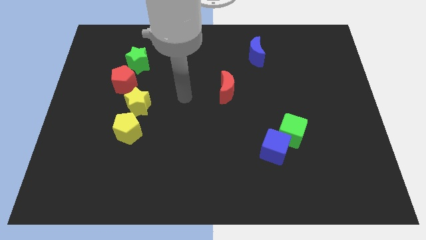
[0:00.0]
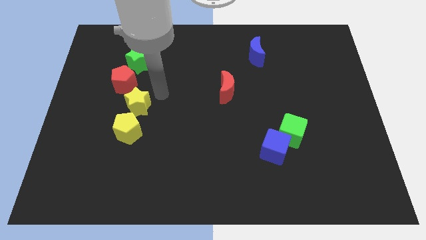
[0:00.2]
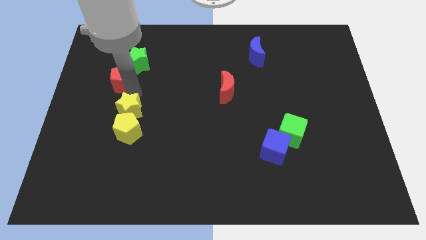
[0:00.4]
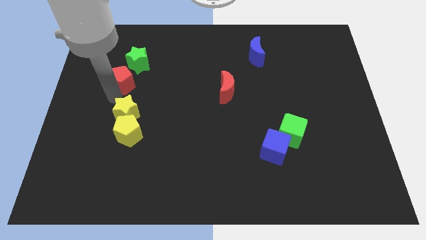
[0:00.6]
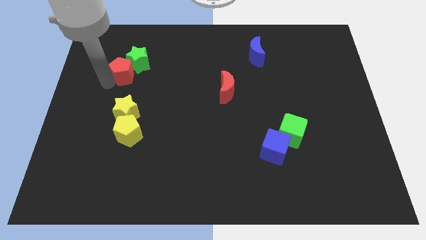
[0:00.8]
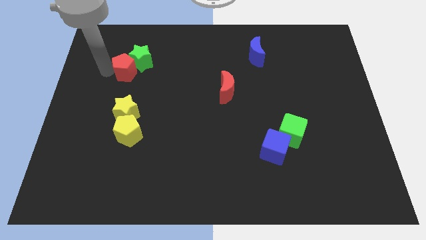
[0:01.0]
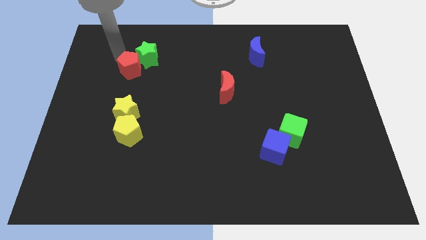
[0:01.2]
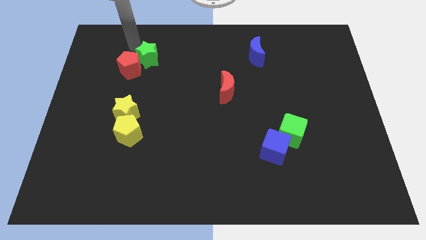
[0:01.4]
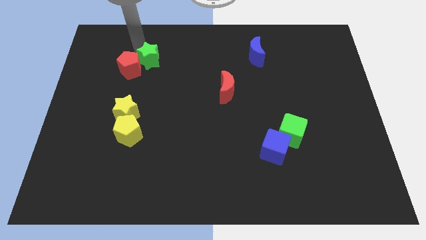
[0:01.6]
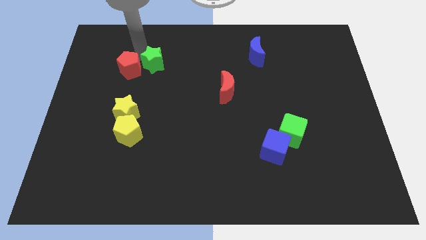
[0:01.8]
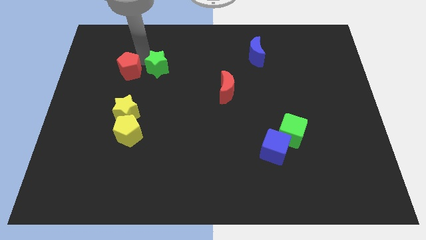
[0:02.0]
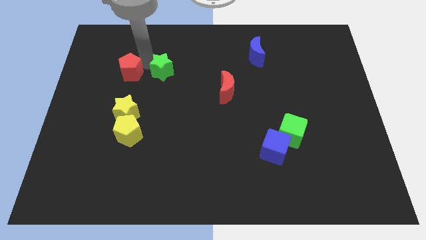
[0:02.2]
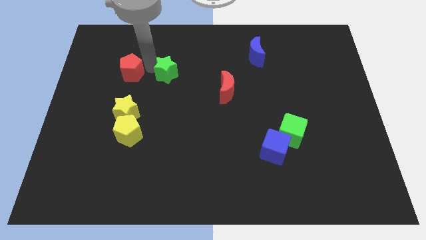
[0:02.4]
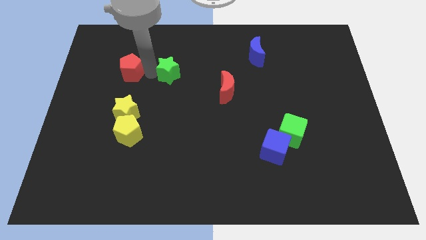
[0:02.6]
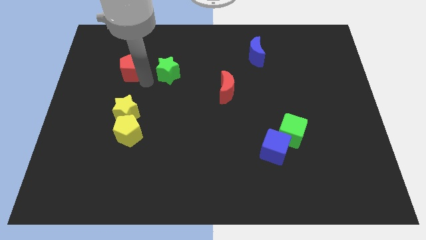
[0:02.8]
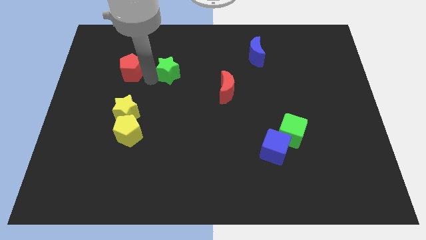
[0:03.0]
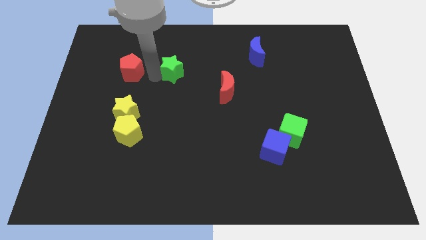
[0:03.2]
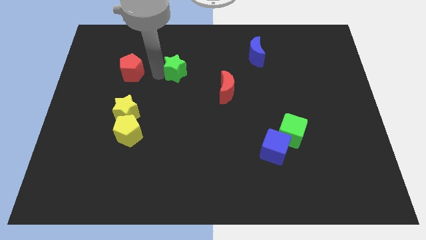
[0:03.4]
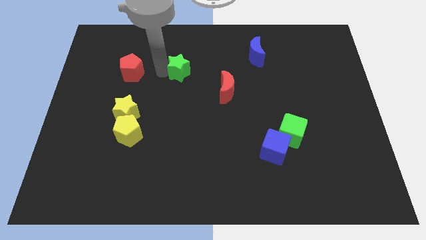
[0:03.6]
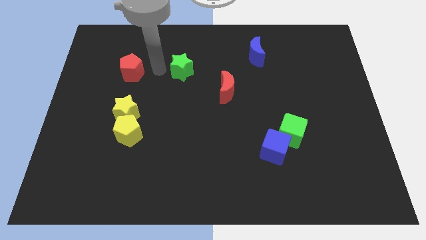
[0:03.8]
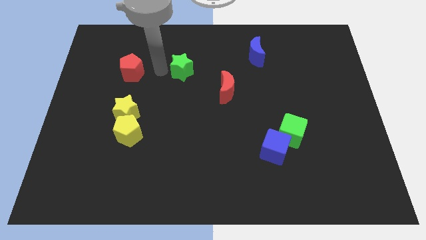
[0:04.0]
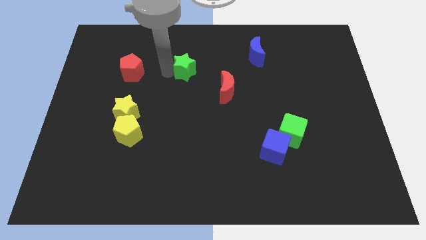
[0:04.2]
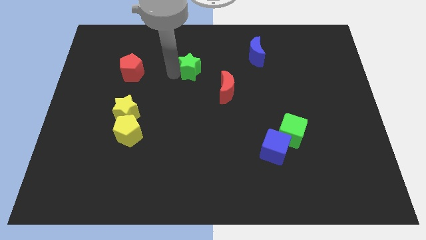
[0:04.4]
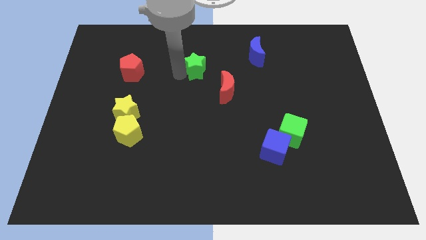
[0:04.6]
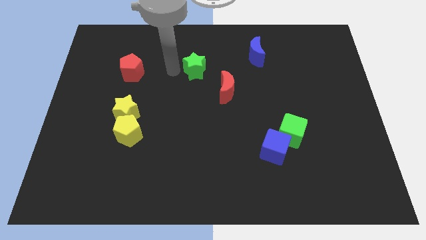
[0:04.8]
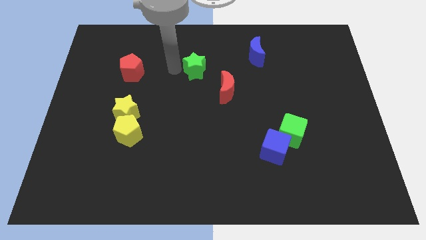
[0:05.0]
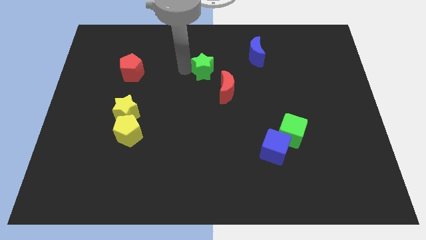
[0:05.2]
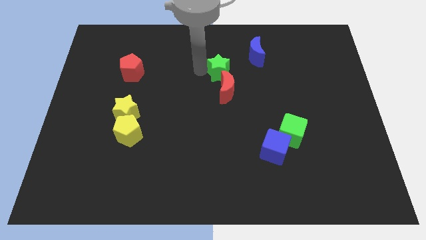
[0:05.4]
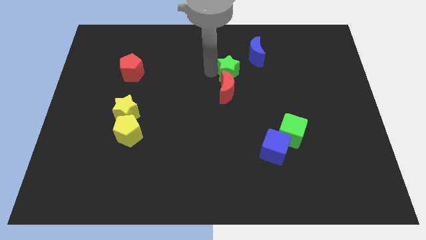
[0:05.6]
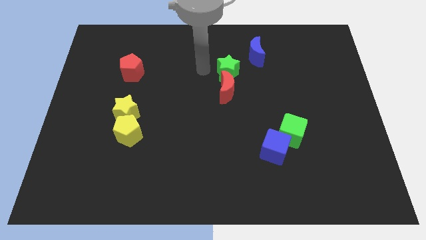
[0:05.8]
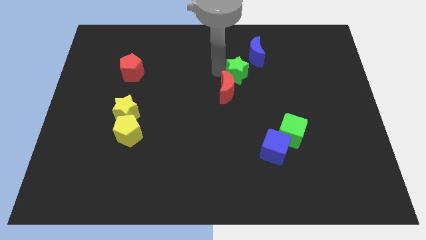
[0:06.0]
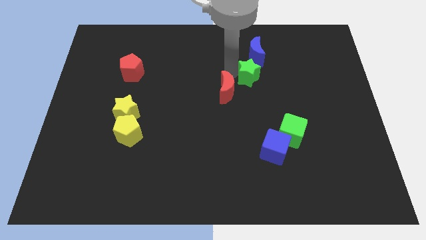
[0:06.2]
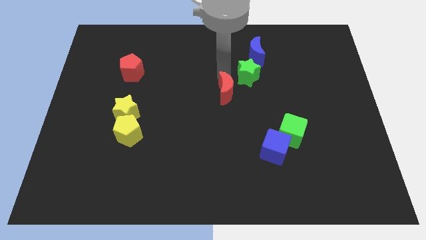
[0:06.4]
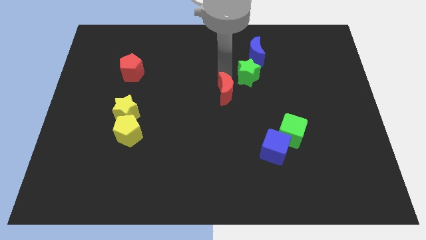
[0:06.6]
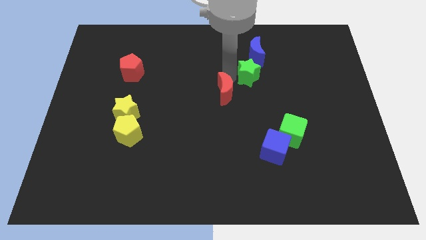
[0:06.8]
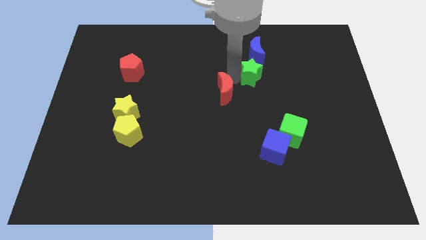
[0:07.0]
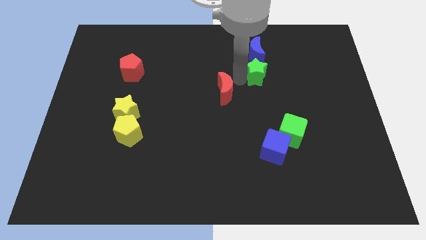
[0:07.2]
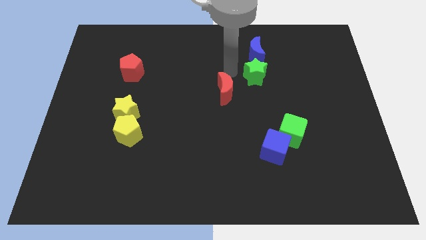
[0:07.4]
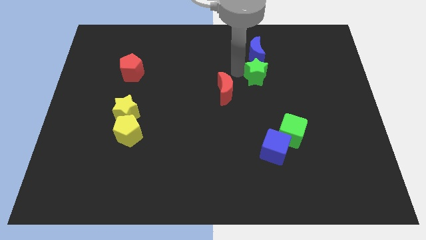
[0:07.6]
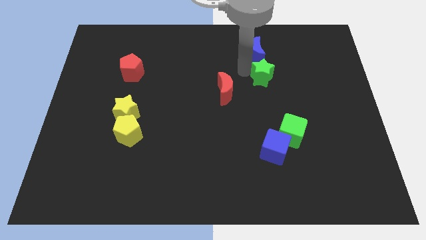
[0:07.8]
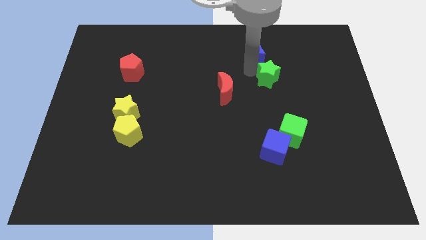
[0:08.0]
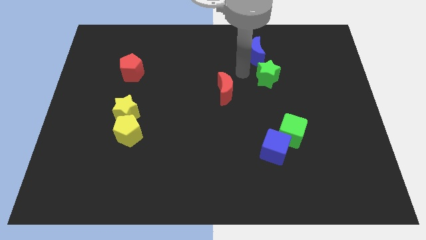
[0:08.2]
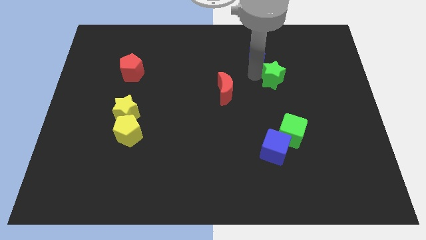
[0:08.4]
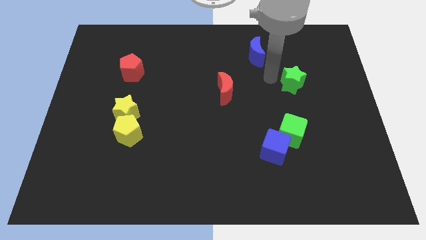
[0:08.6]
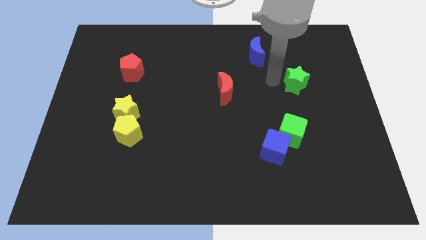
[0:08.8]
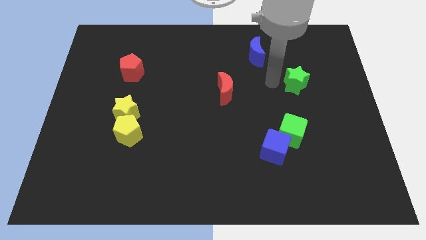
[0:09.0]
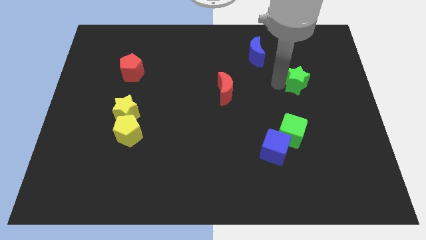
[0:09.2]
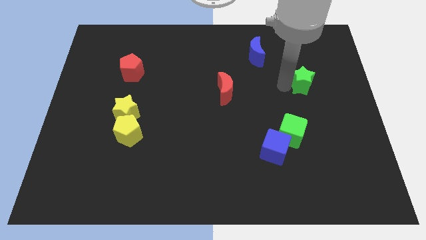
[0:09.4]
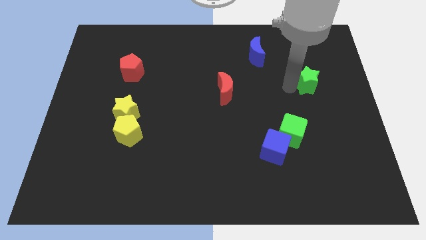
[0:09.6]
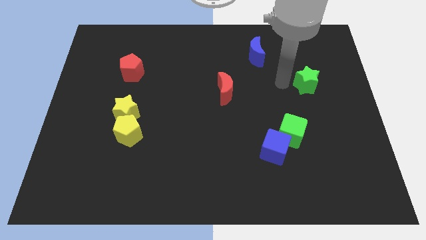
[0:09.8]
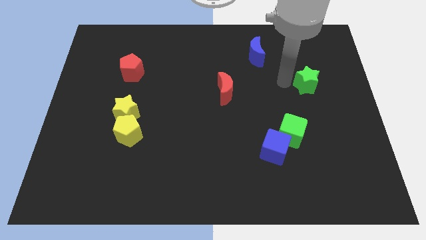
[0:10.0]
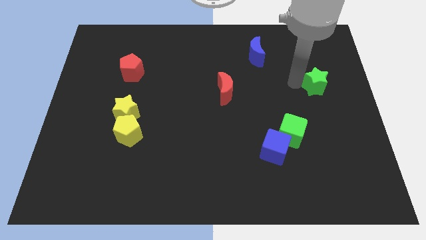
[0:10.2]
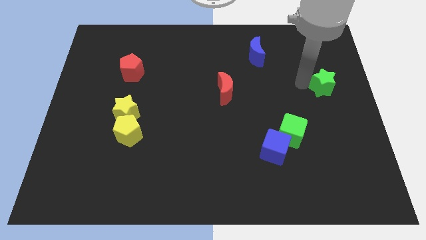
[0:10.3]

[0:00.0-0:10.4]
slide the green star to the right side of the board

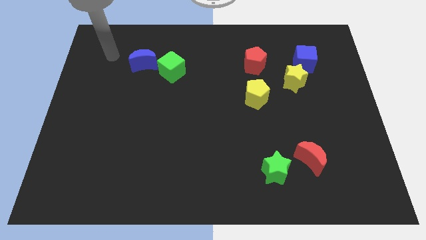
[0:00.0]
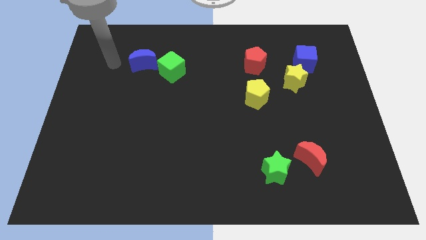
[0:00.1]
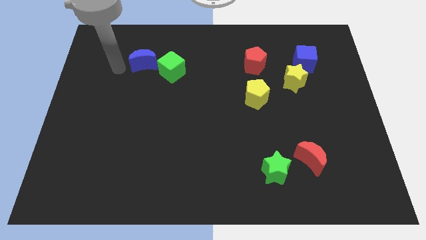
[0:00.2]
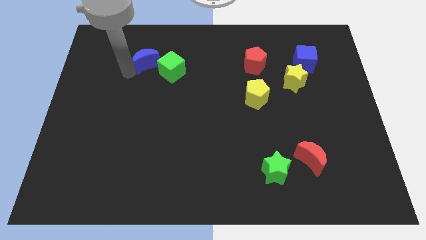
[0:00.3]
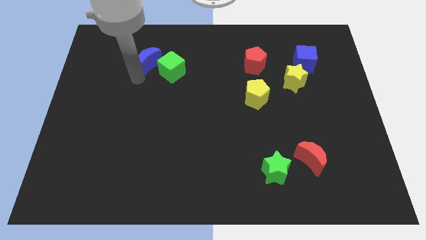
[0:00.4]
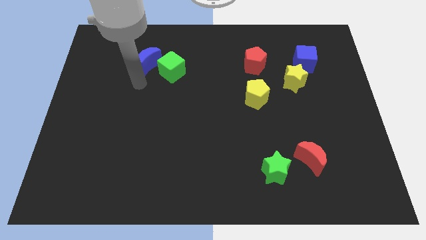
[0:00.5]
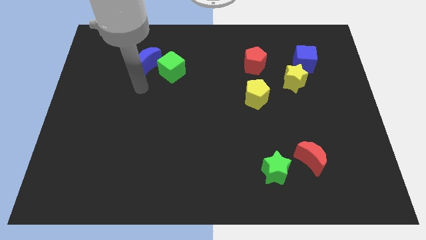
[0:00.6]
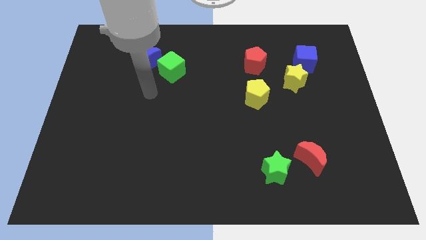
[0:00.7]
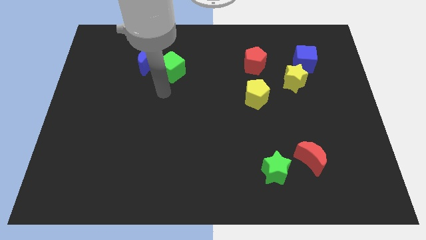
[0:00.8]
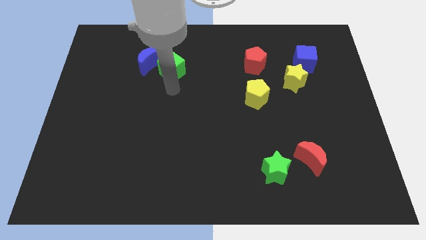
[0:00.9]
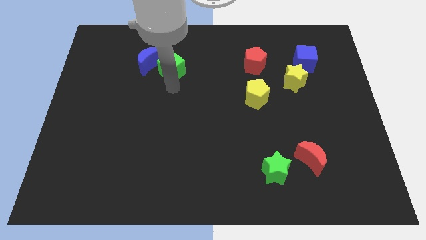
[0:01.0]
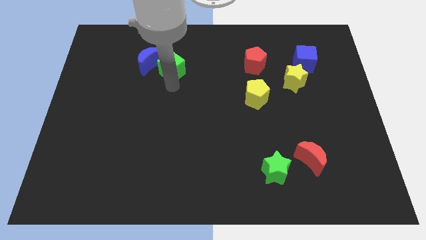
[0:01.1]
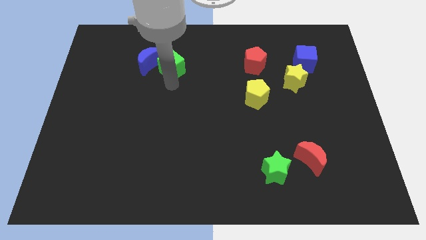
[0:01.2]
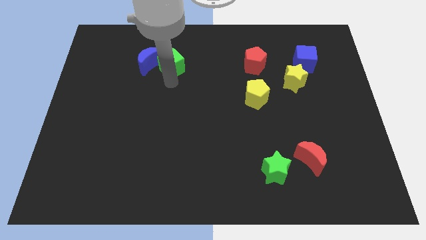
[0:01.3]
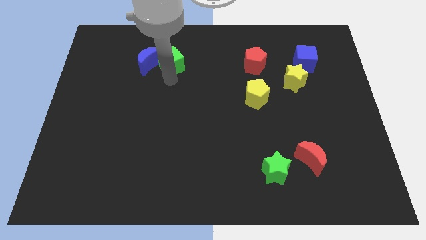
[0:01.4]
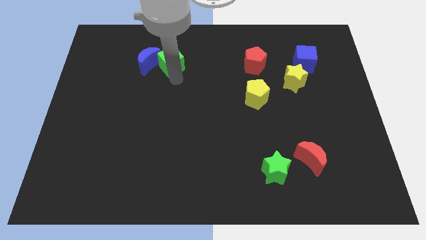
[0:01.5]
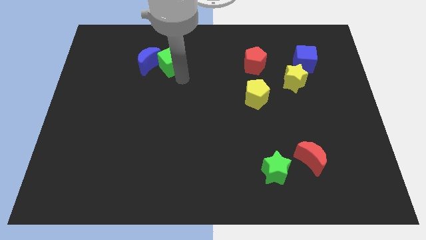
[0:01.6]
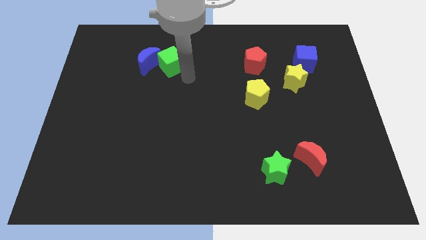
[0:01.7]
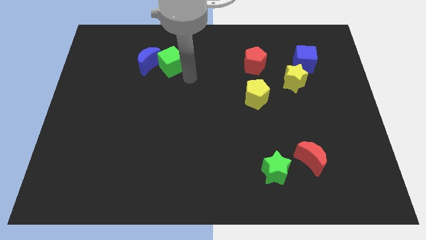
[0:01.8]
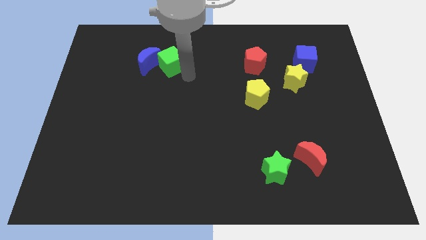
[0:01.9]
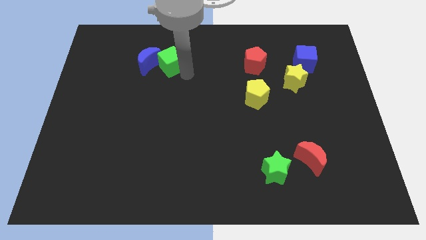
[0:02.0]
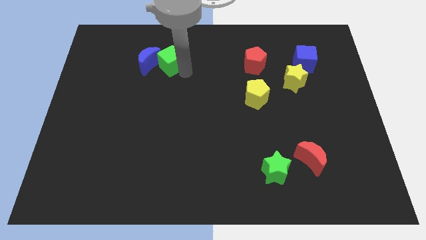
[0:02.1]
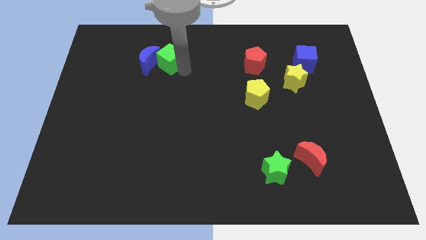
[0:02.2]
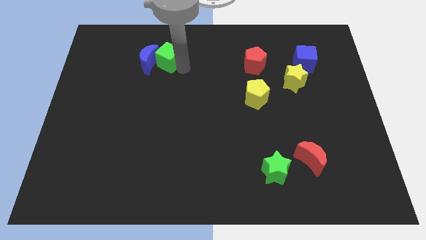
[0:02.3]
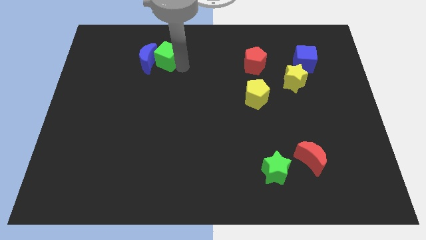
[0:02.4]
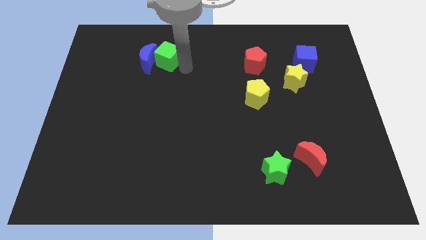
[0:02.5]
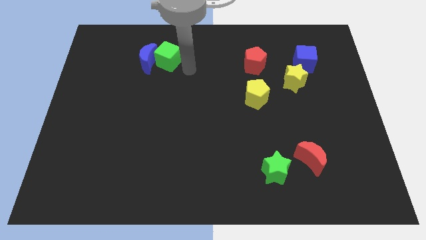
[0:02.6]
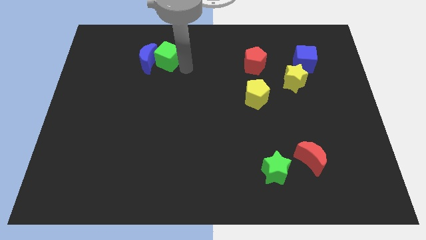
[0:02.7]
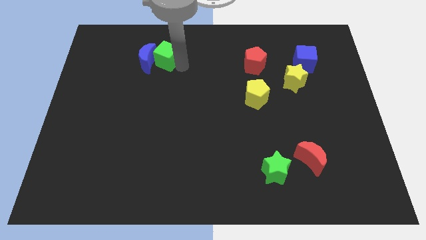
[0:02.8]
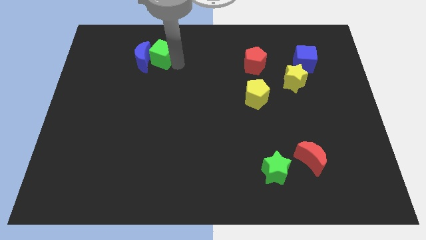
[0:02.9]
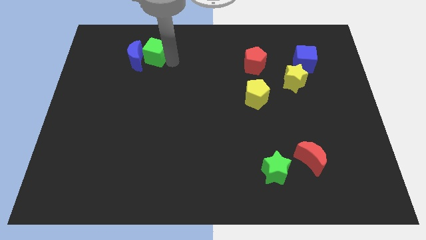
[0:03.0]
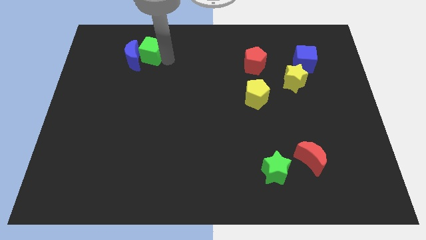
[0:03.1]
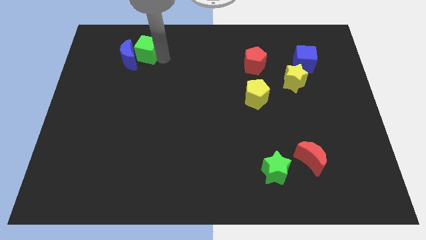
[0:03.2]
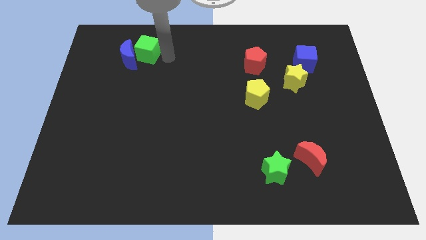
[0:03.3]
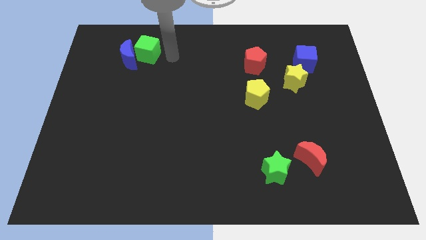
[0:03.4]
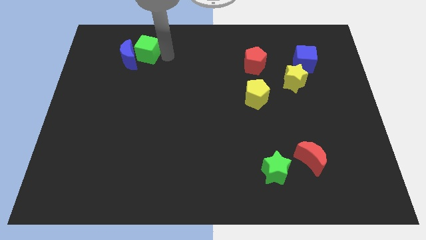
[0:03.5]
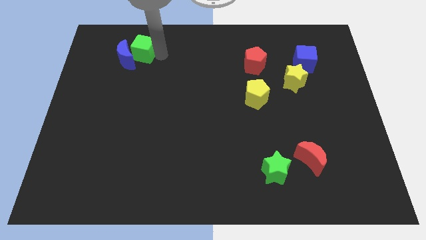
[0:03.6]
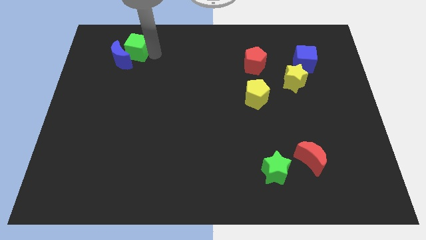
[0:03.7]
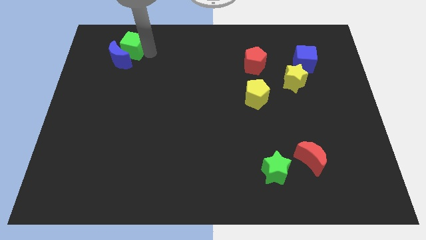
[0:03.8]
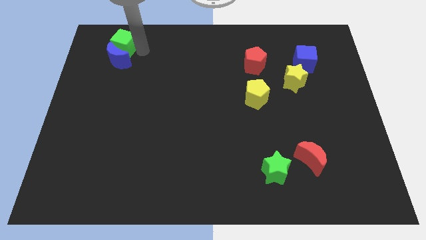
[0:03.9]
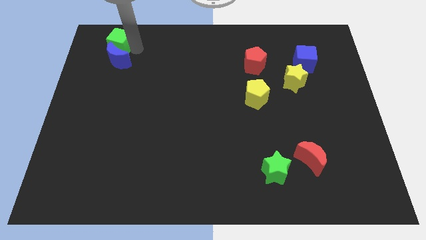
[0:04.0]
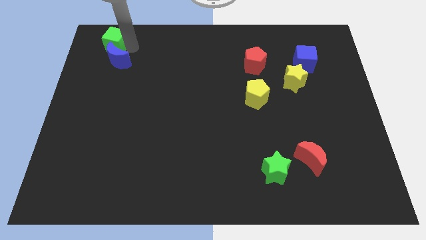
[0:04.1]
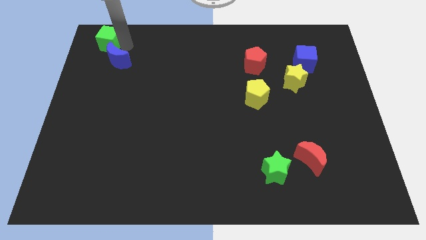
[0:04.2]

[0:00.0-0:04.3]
move the green cube to the top left of the board
